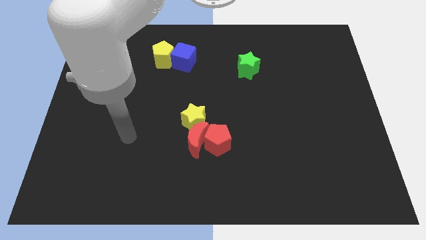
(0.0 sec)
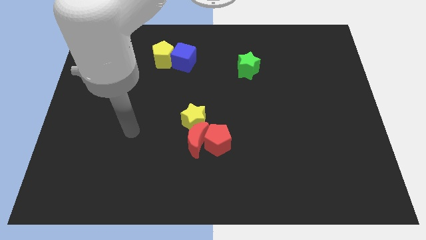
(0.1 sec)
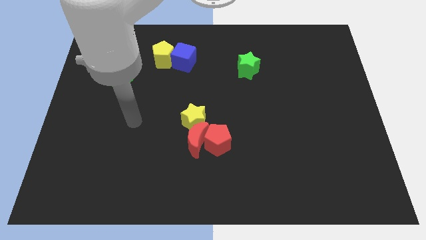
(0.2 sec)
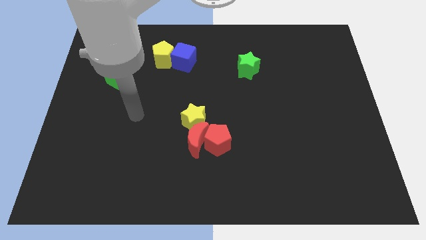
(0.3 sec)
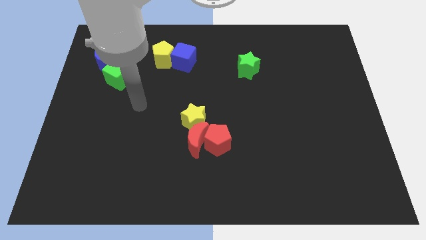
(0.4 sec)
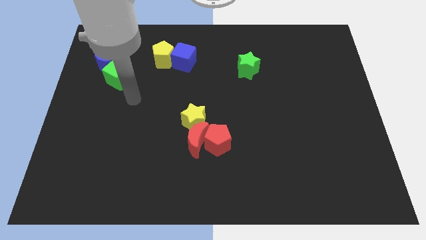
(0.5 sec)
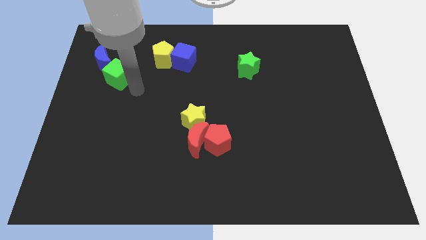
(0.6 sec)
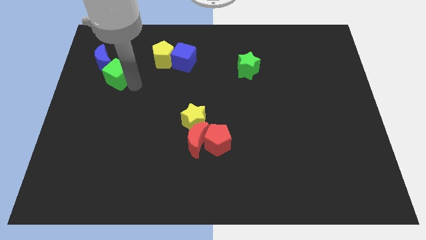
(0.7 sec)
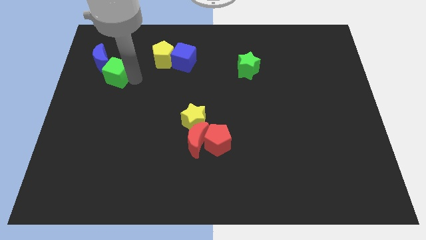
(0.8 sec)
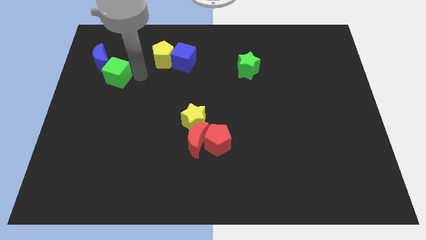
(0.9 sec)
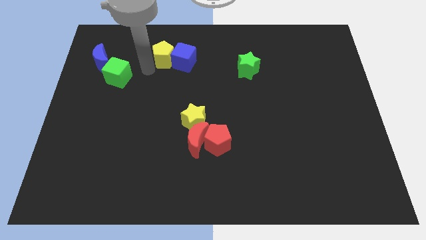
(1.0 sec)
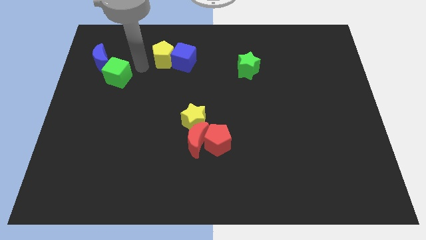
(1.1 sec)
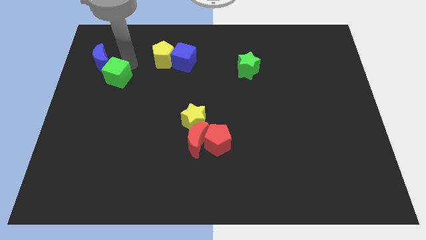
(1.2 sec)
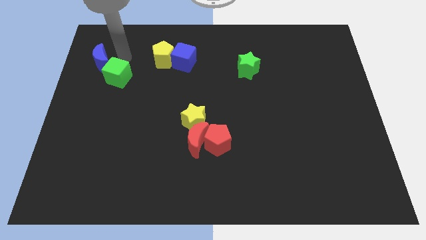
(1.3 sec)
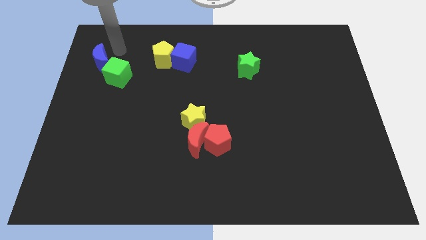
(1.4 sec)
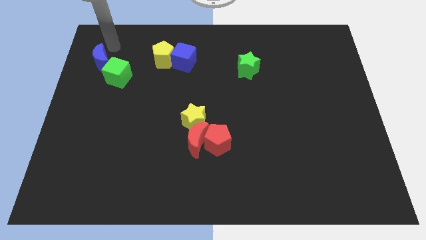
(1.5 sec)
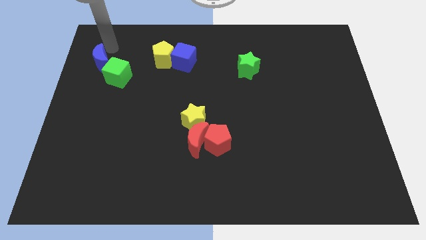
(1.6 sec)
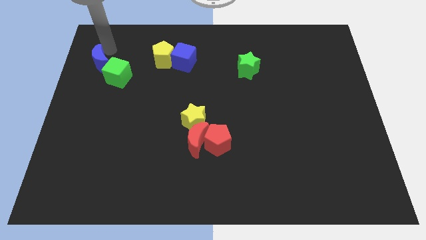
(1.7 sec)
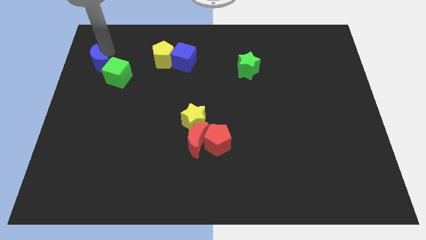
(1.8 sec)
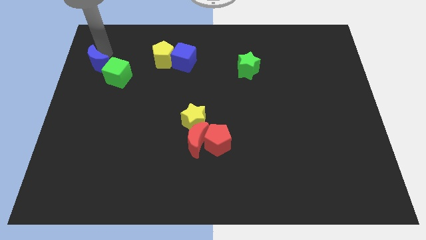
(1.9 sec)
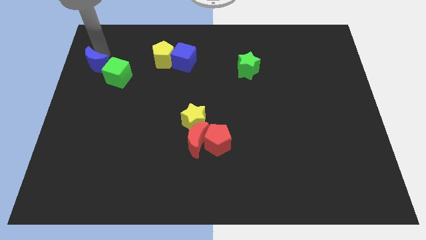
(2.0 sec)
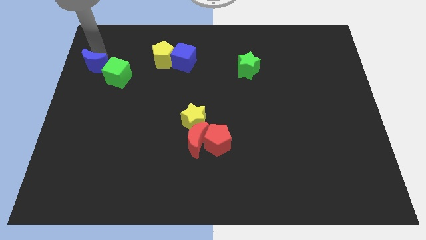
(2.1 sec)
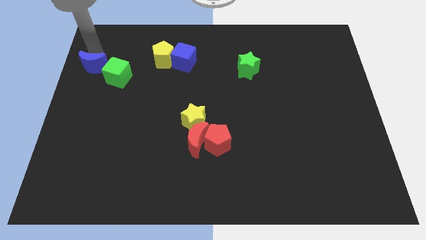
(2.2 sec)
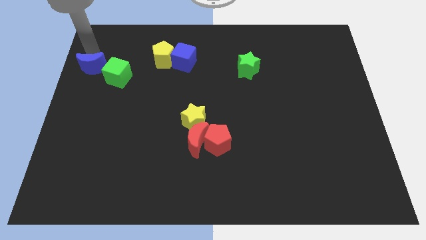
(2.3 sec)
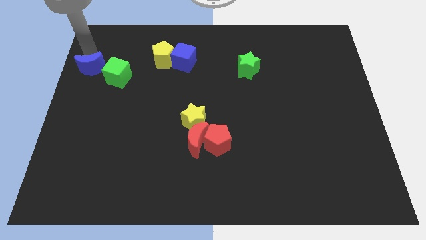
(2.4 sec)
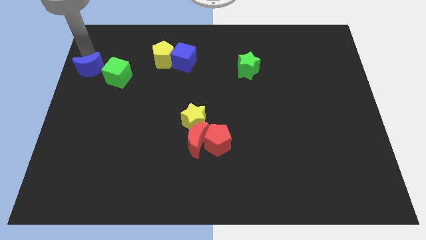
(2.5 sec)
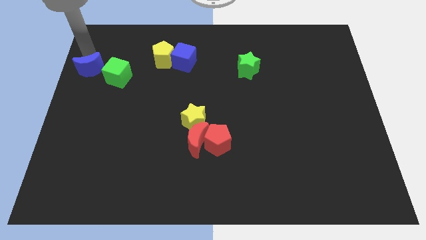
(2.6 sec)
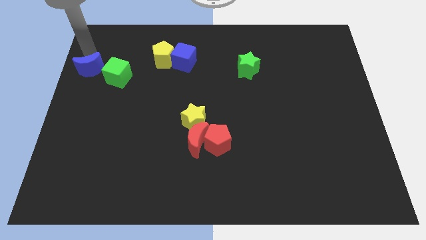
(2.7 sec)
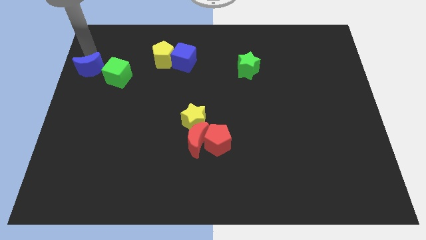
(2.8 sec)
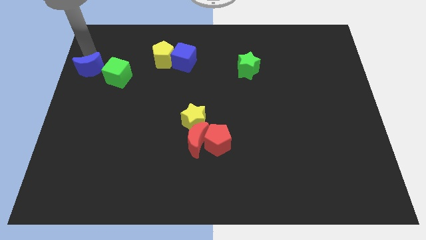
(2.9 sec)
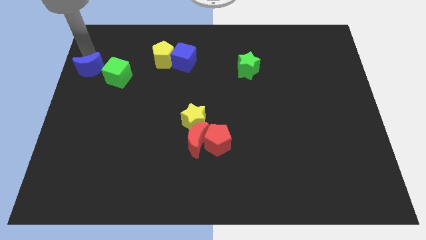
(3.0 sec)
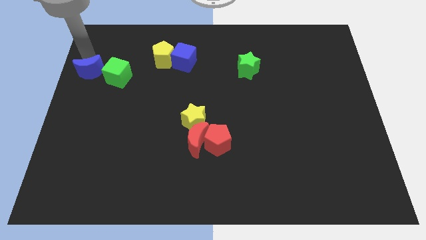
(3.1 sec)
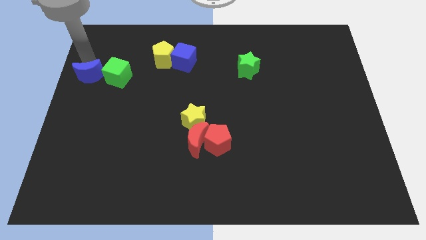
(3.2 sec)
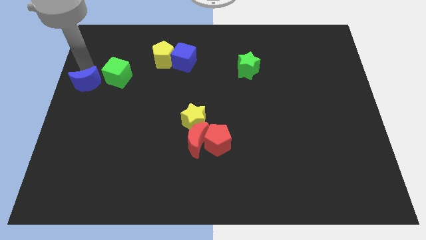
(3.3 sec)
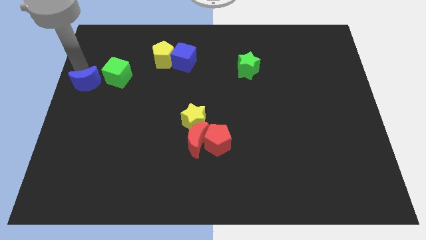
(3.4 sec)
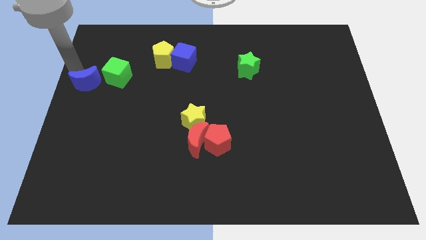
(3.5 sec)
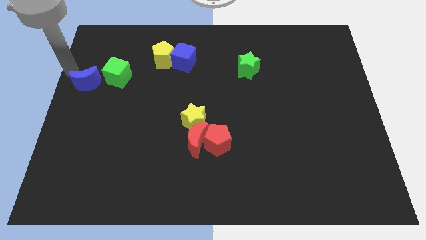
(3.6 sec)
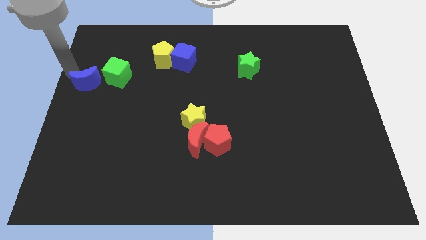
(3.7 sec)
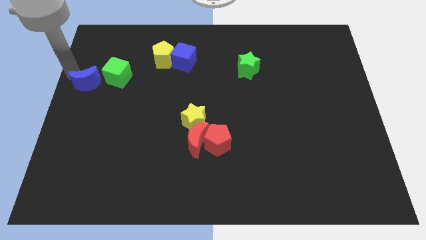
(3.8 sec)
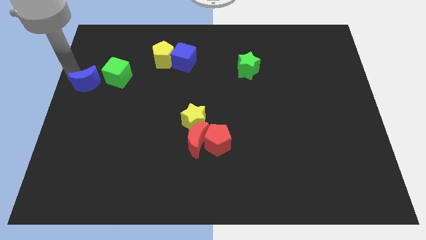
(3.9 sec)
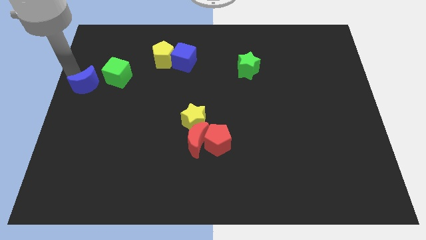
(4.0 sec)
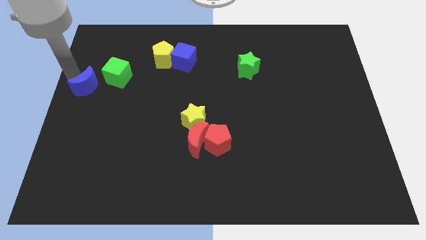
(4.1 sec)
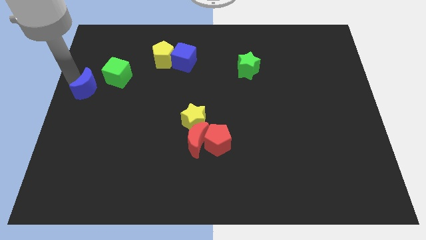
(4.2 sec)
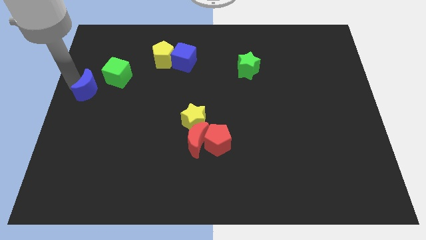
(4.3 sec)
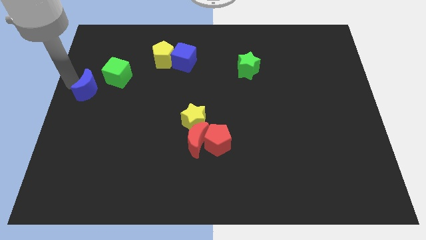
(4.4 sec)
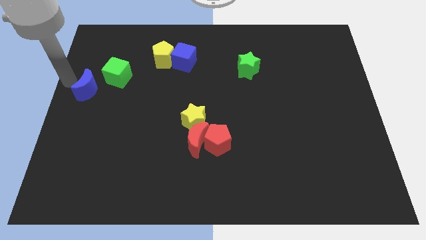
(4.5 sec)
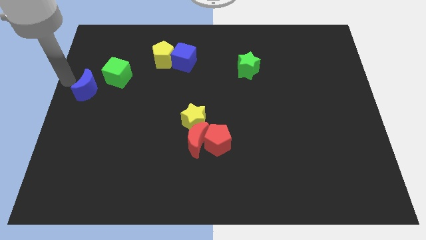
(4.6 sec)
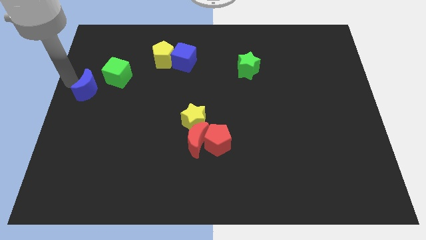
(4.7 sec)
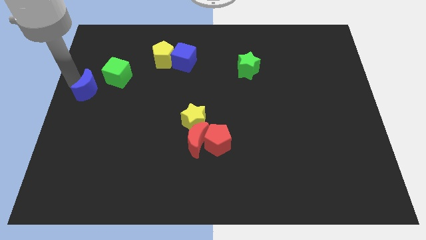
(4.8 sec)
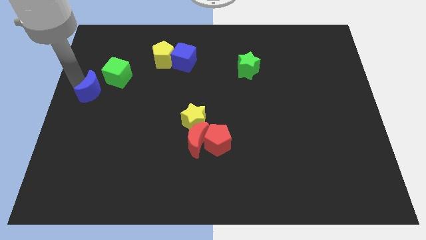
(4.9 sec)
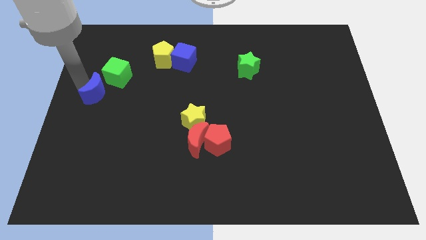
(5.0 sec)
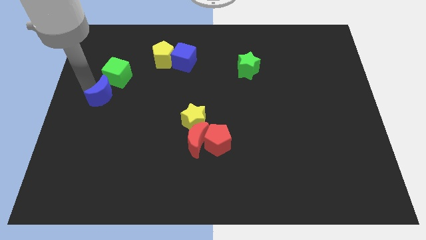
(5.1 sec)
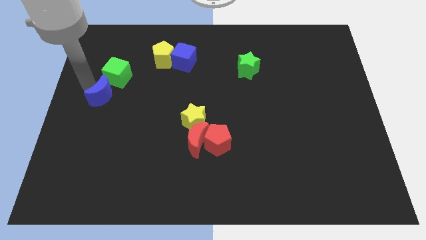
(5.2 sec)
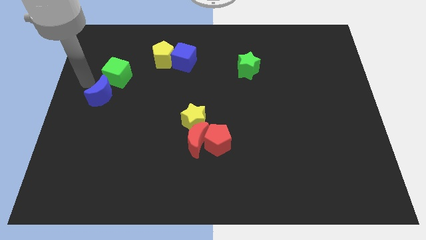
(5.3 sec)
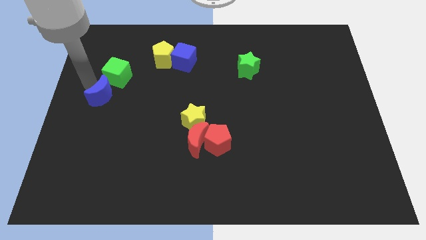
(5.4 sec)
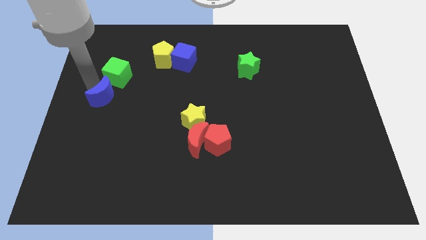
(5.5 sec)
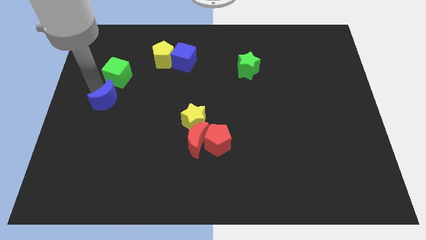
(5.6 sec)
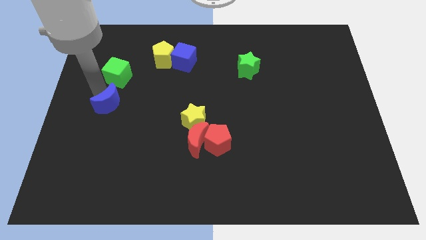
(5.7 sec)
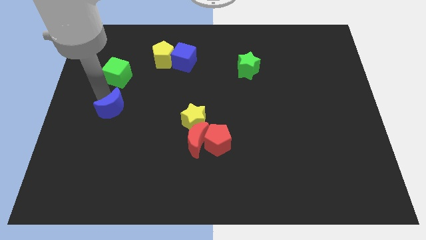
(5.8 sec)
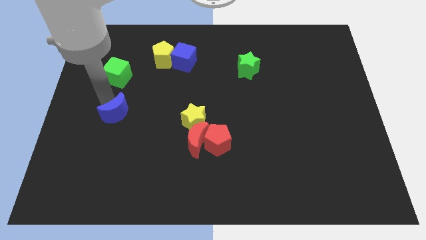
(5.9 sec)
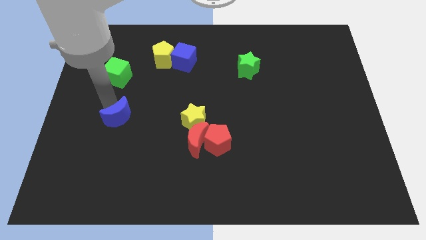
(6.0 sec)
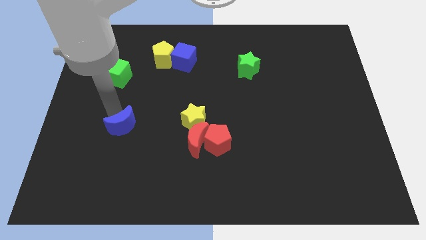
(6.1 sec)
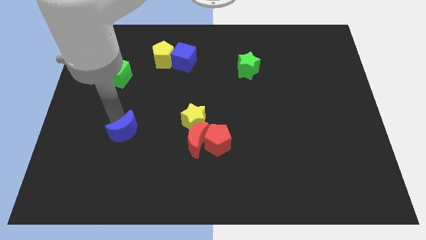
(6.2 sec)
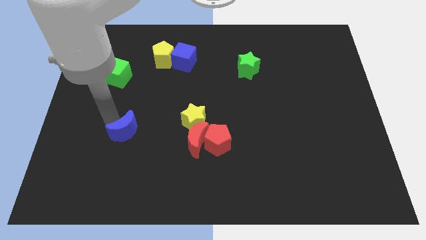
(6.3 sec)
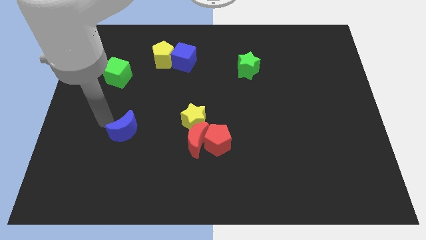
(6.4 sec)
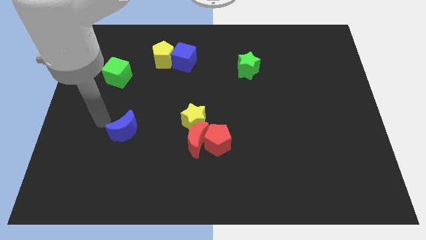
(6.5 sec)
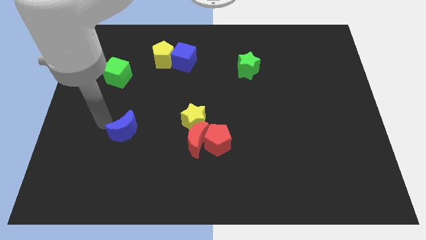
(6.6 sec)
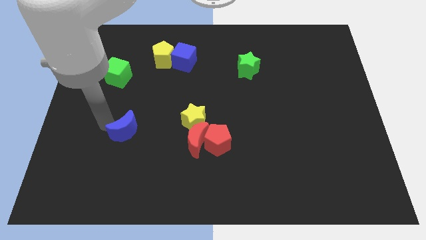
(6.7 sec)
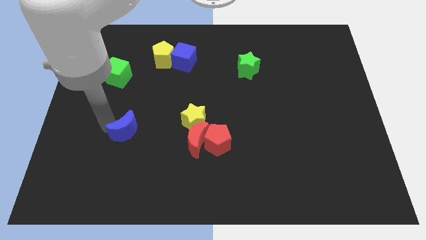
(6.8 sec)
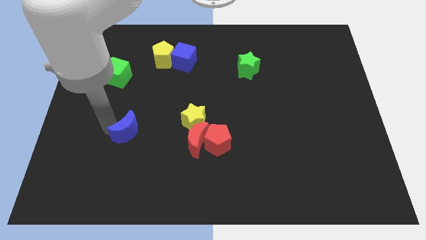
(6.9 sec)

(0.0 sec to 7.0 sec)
move the blue moon left of the red moon

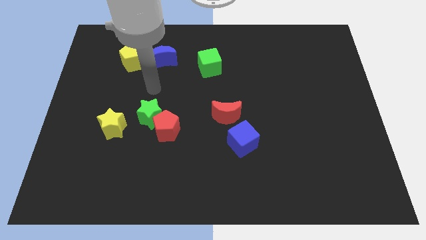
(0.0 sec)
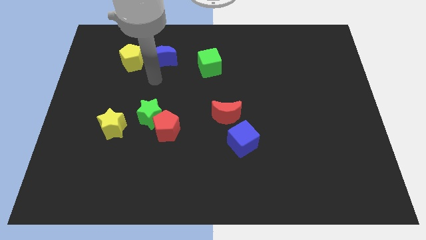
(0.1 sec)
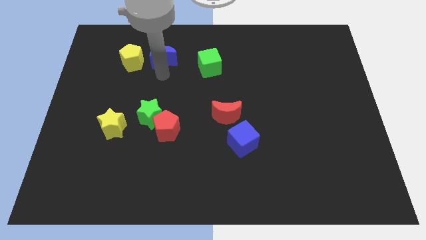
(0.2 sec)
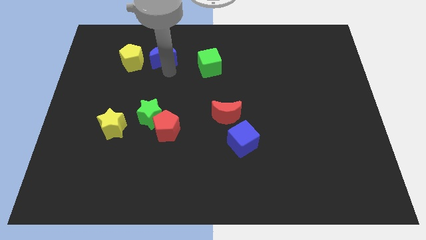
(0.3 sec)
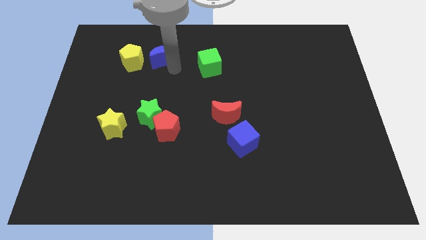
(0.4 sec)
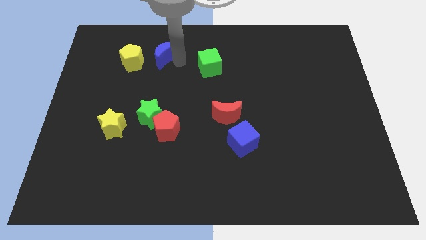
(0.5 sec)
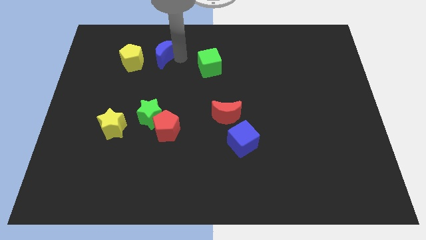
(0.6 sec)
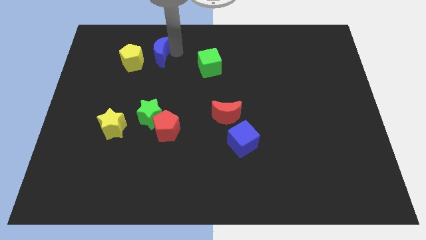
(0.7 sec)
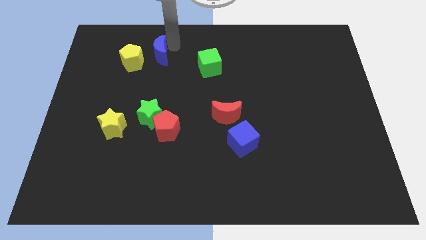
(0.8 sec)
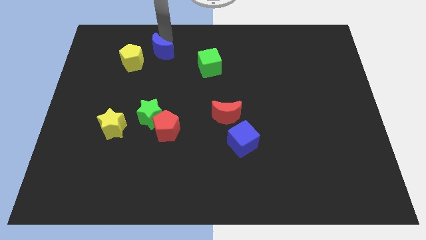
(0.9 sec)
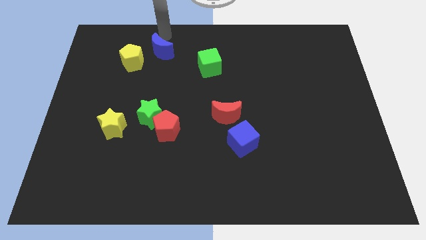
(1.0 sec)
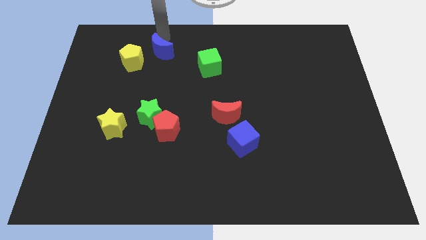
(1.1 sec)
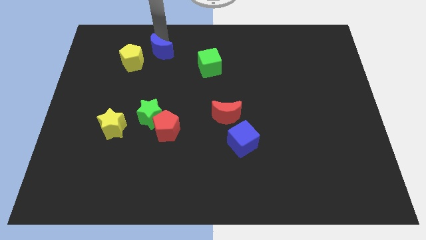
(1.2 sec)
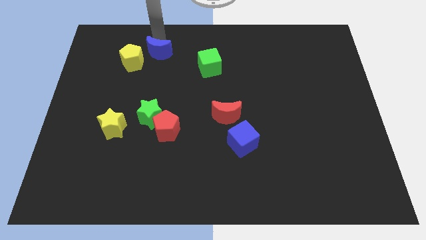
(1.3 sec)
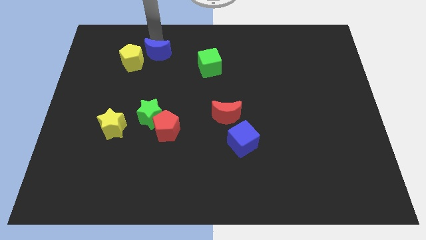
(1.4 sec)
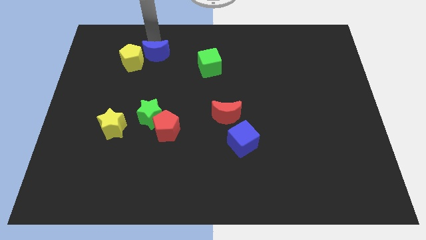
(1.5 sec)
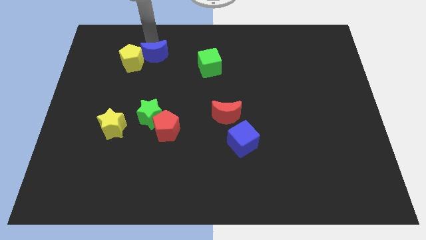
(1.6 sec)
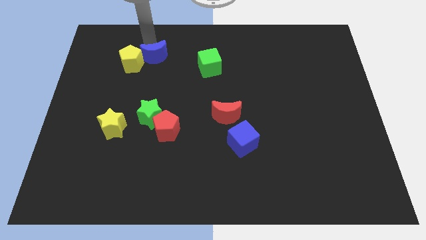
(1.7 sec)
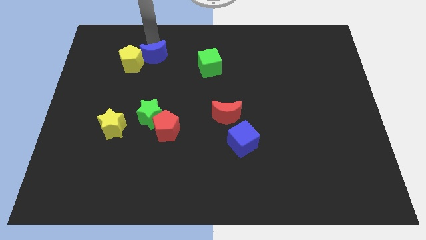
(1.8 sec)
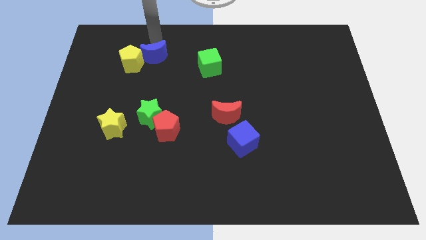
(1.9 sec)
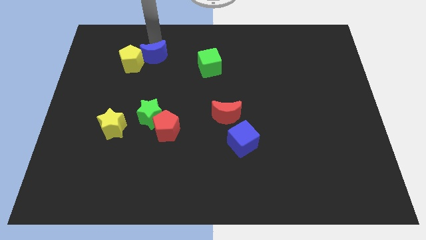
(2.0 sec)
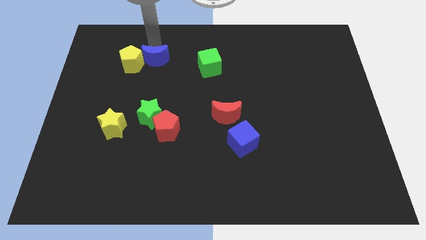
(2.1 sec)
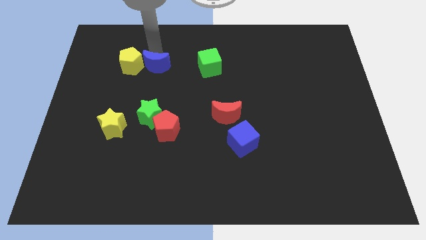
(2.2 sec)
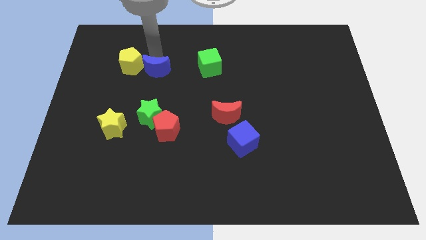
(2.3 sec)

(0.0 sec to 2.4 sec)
move the blue moon above the green star
